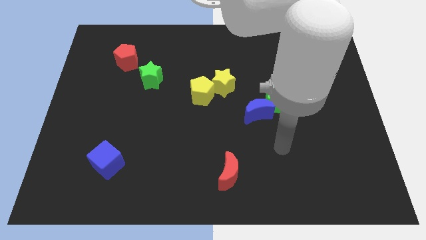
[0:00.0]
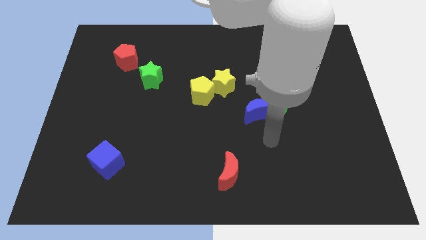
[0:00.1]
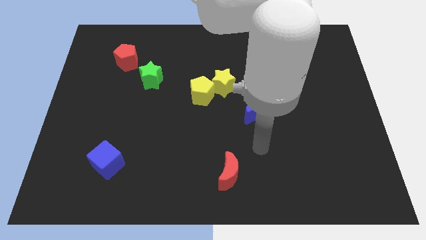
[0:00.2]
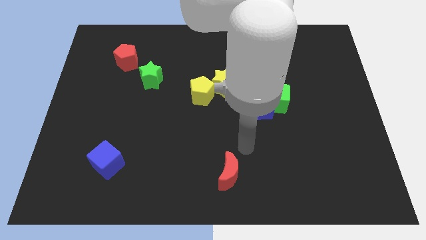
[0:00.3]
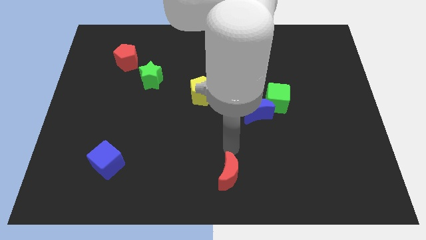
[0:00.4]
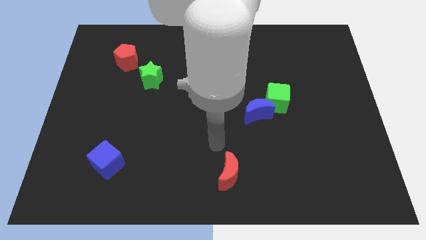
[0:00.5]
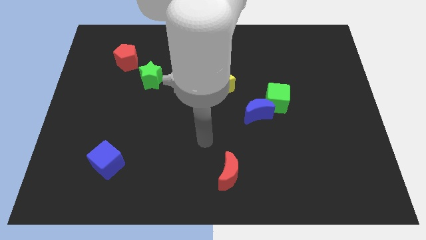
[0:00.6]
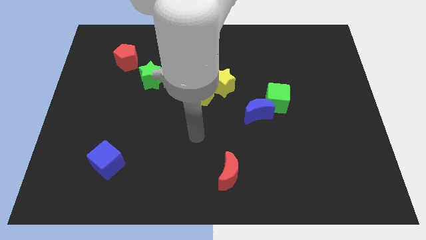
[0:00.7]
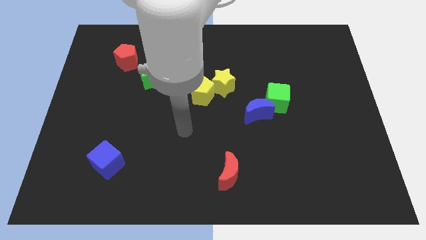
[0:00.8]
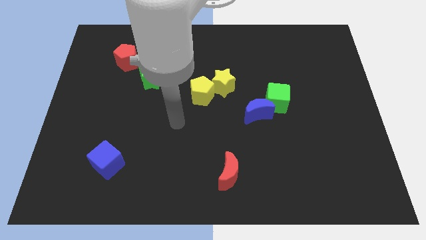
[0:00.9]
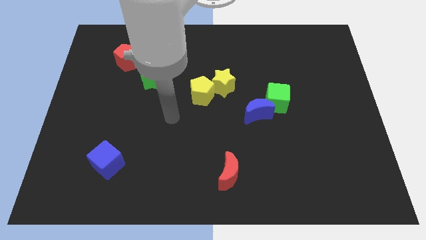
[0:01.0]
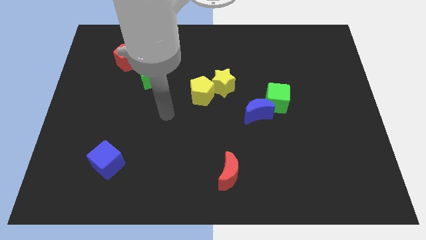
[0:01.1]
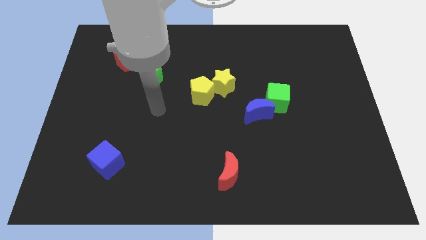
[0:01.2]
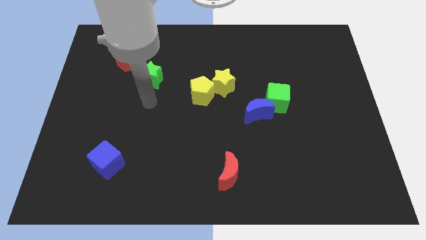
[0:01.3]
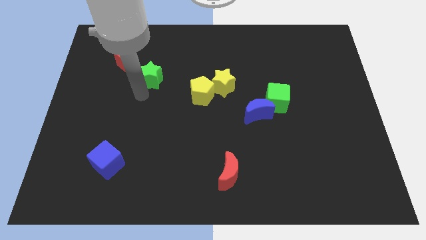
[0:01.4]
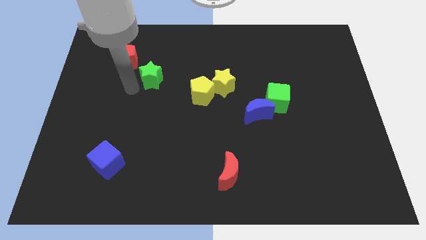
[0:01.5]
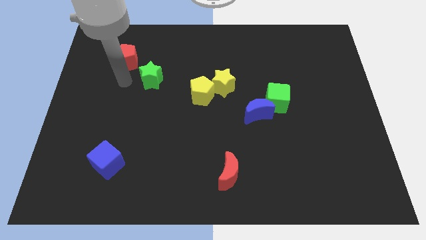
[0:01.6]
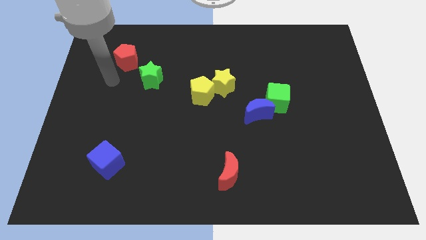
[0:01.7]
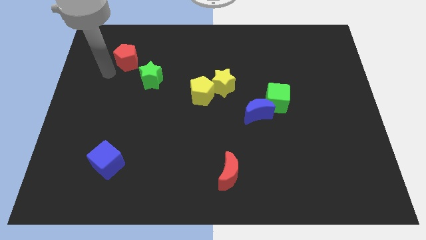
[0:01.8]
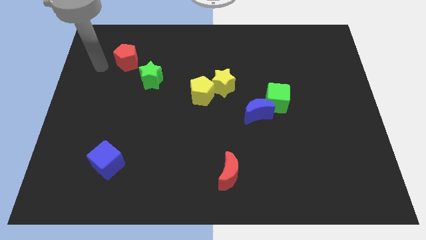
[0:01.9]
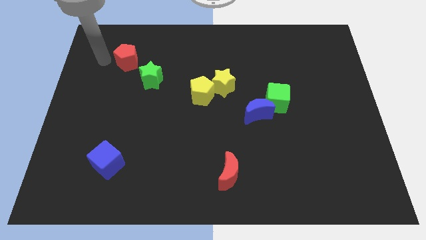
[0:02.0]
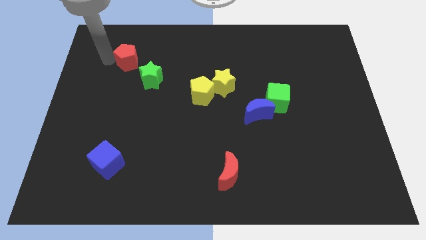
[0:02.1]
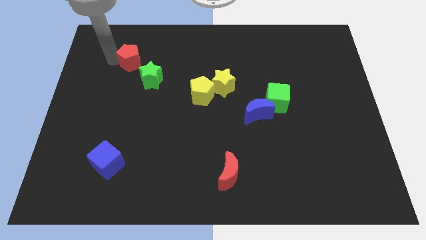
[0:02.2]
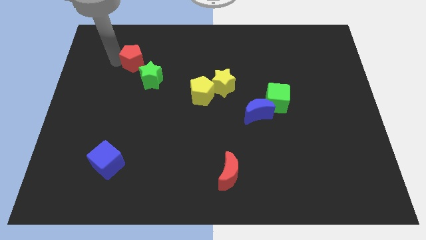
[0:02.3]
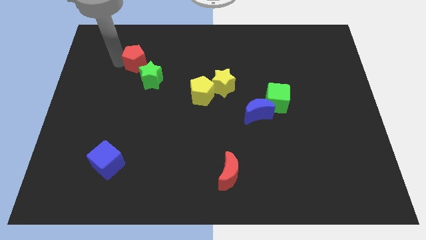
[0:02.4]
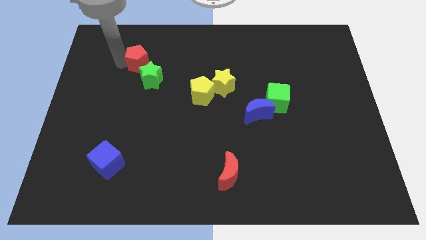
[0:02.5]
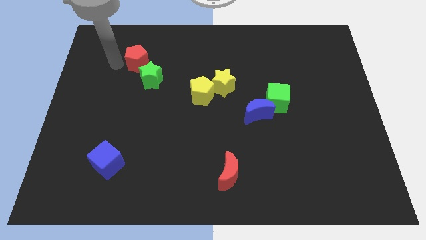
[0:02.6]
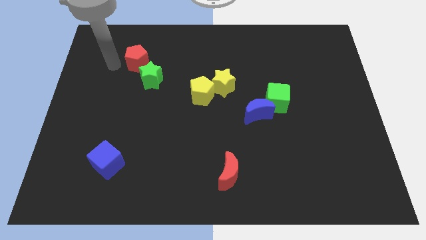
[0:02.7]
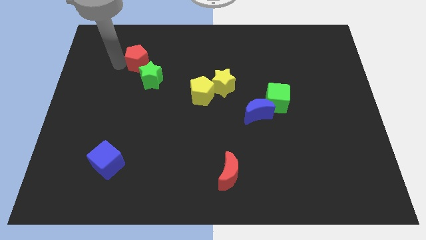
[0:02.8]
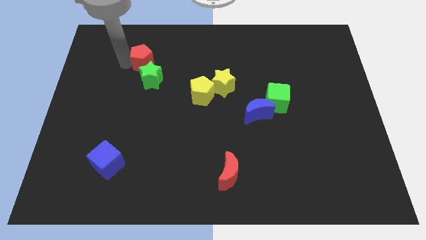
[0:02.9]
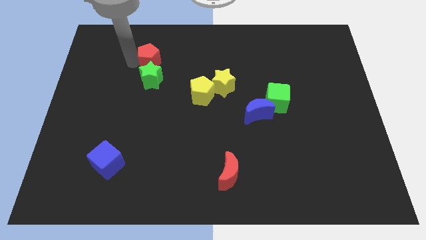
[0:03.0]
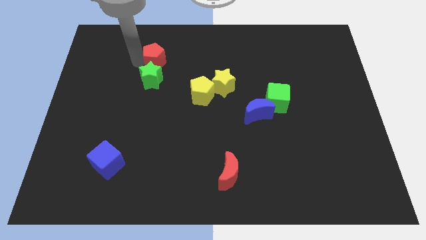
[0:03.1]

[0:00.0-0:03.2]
slightly push the red pentagon right

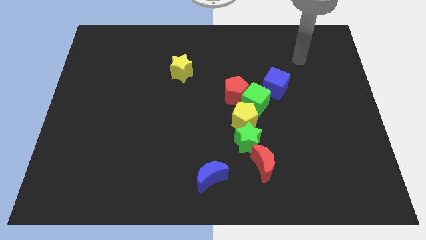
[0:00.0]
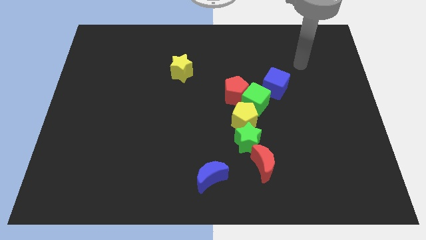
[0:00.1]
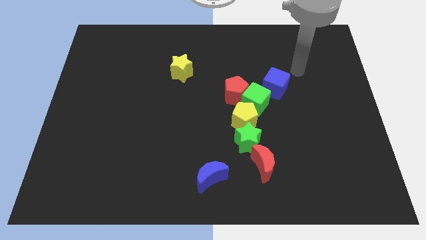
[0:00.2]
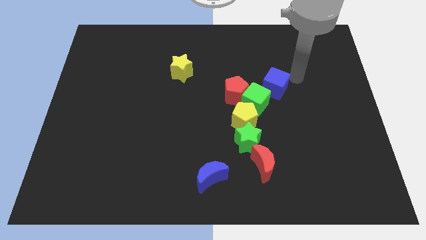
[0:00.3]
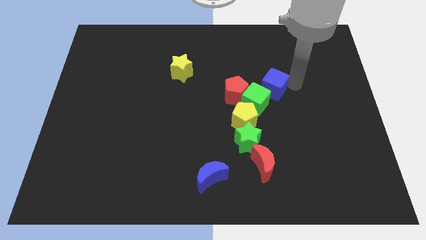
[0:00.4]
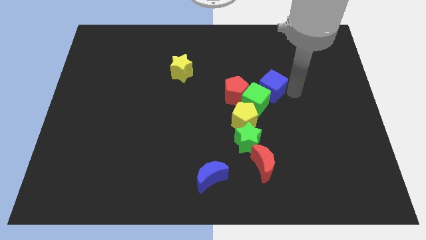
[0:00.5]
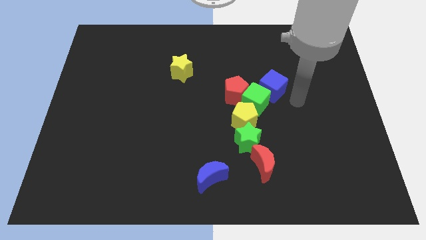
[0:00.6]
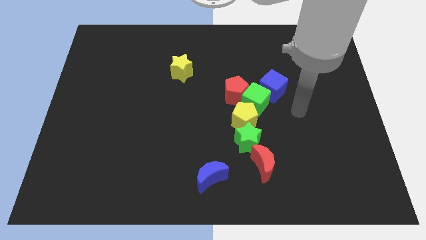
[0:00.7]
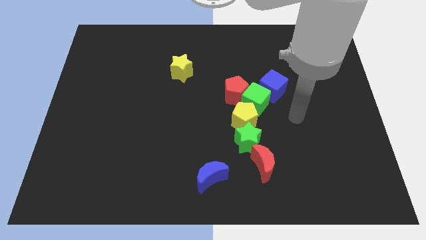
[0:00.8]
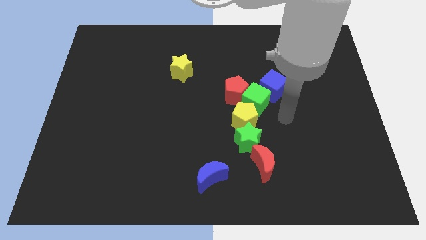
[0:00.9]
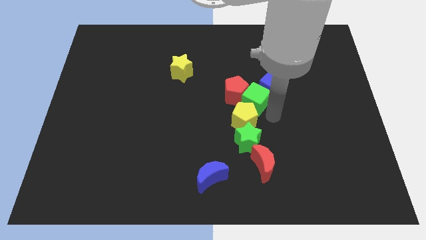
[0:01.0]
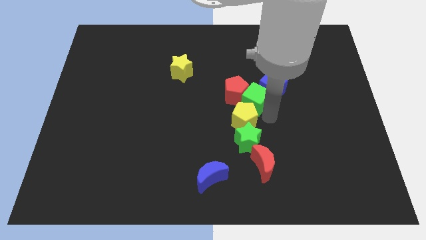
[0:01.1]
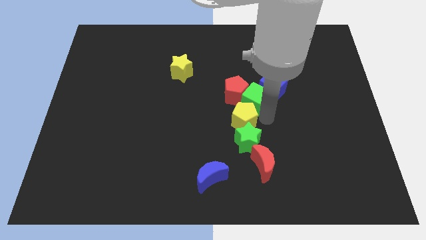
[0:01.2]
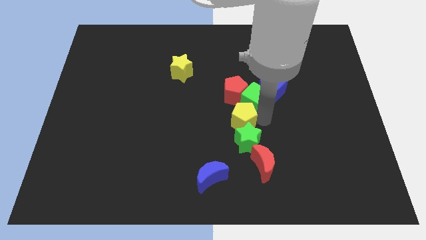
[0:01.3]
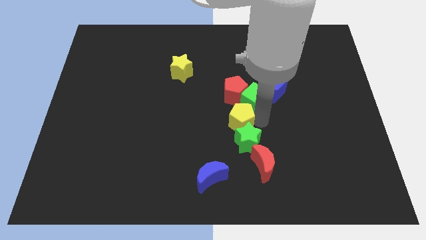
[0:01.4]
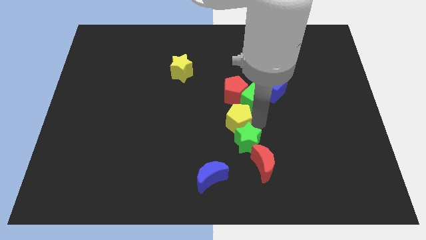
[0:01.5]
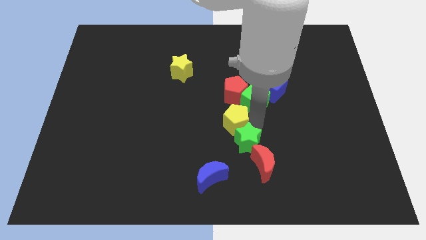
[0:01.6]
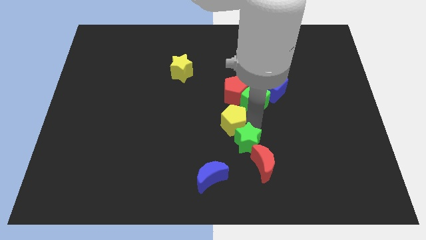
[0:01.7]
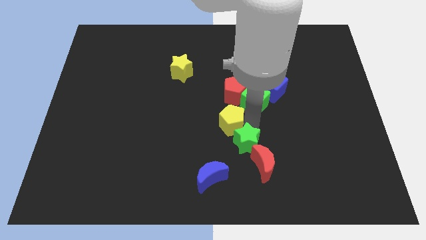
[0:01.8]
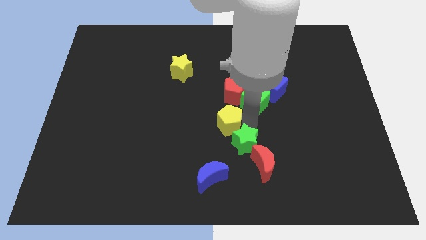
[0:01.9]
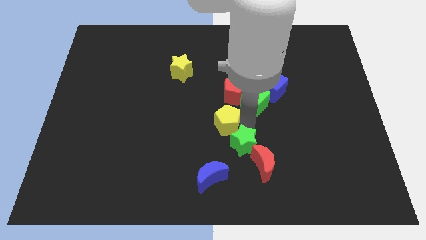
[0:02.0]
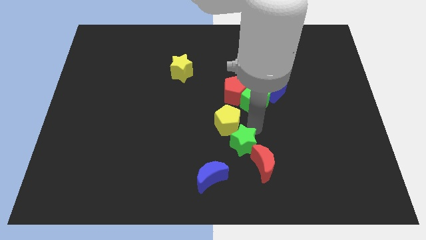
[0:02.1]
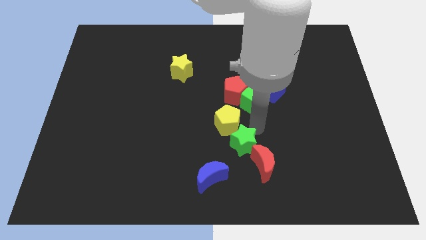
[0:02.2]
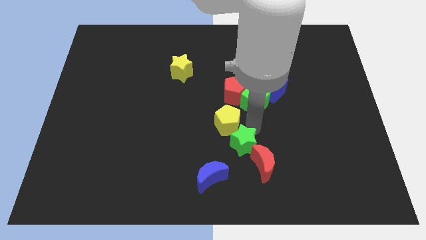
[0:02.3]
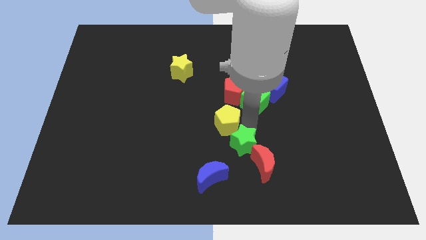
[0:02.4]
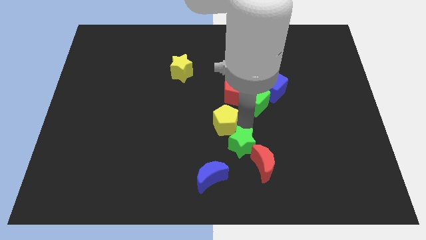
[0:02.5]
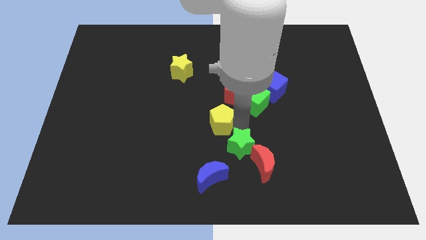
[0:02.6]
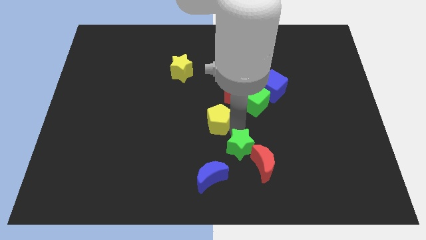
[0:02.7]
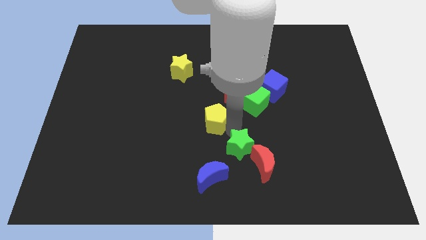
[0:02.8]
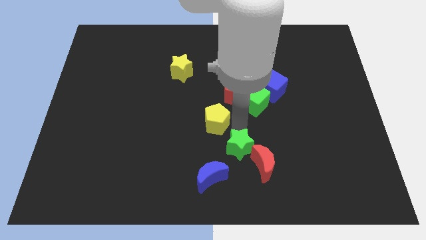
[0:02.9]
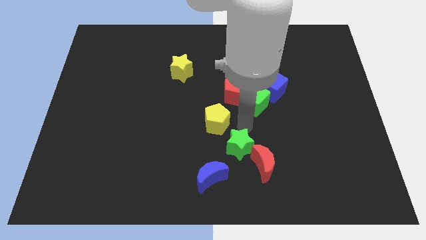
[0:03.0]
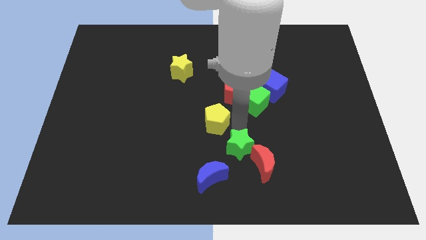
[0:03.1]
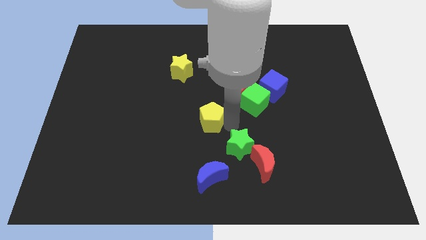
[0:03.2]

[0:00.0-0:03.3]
slightly move the yellow pentagon to the left

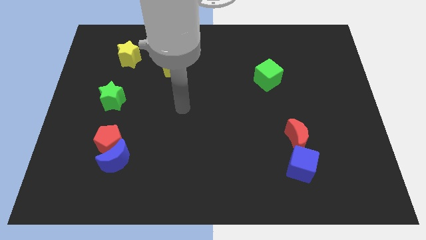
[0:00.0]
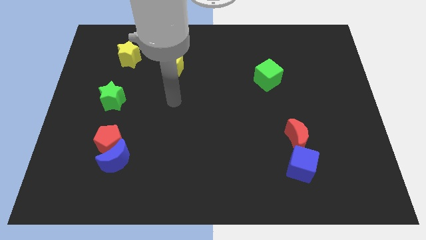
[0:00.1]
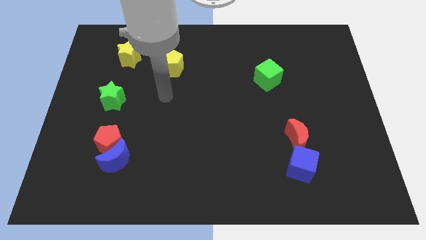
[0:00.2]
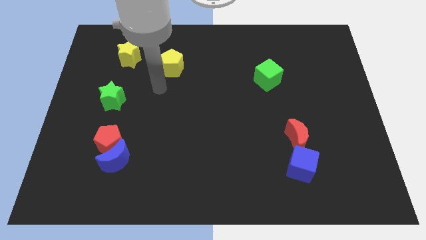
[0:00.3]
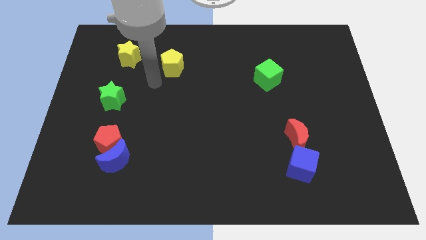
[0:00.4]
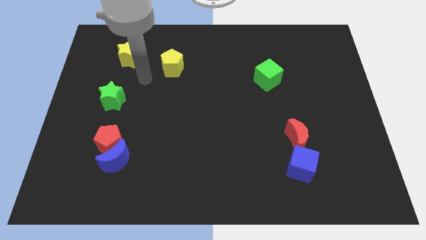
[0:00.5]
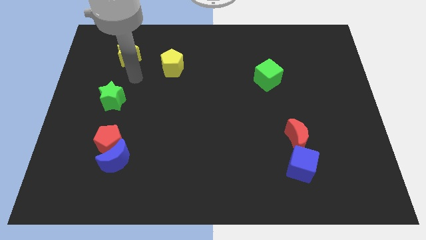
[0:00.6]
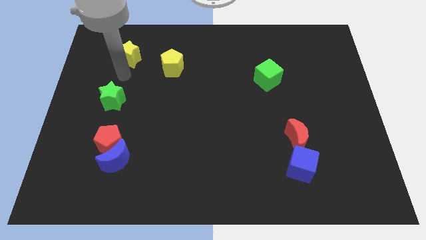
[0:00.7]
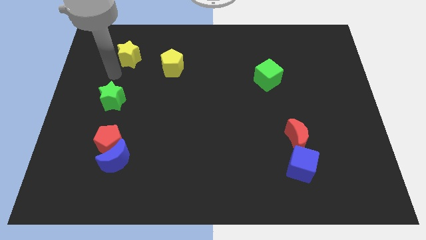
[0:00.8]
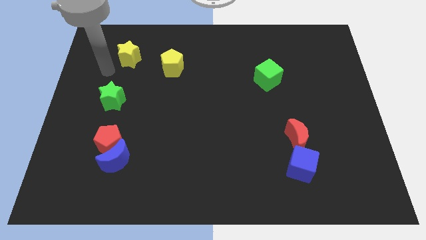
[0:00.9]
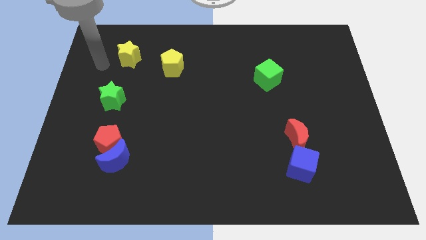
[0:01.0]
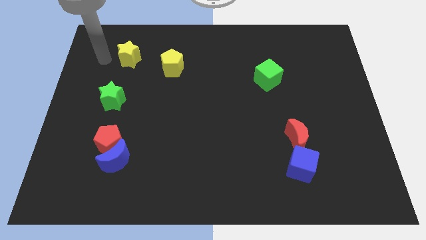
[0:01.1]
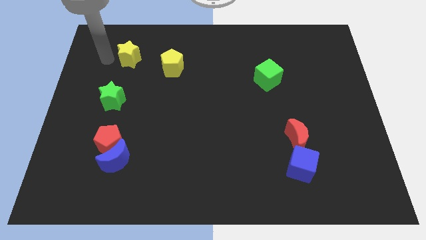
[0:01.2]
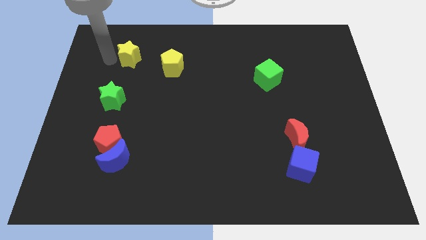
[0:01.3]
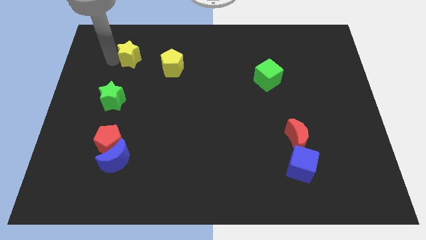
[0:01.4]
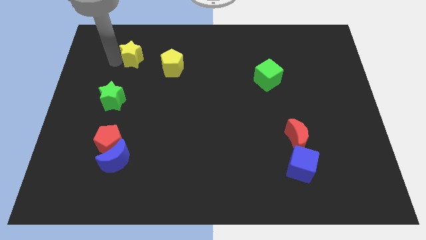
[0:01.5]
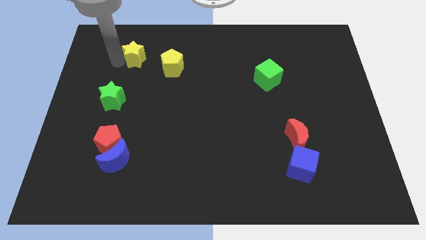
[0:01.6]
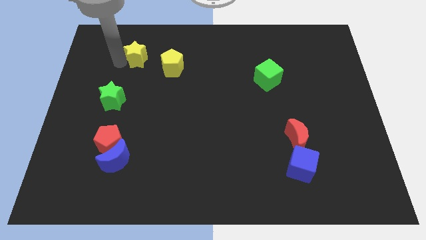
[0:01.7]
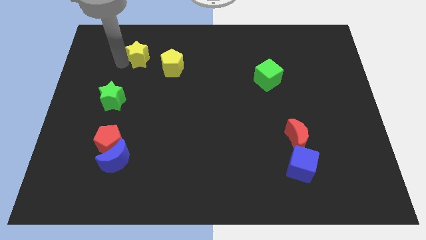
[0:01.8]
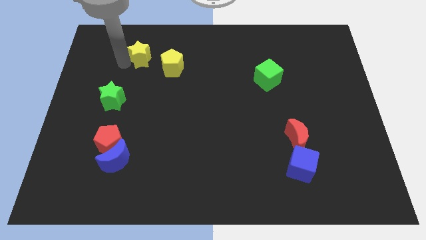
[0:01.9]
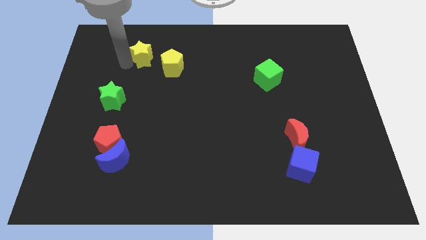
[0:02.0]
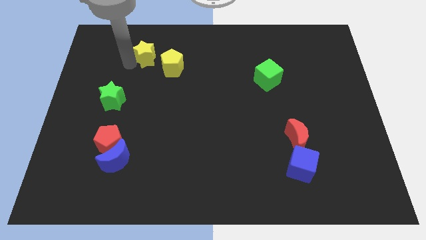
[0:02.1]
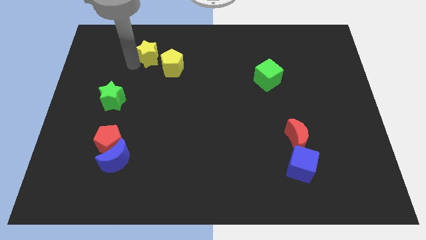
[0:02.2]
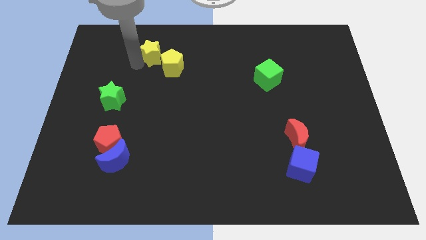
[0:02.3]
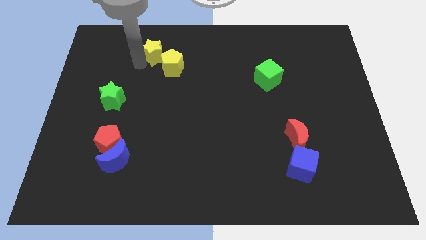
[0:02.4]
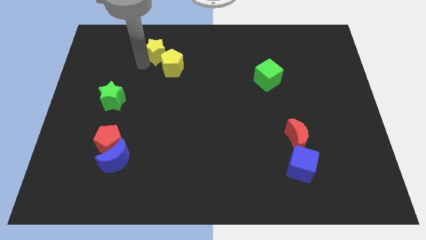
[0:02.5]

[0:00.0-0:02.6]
push the yellow star right somewhat
